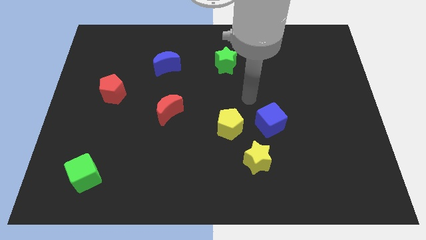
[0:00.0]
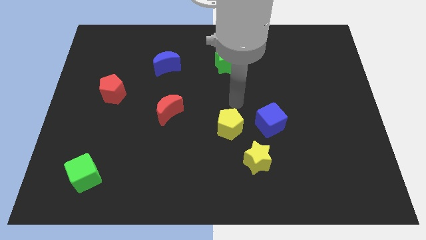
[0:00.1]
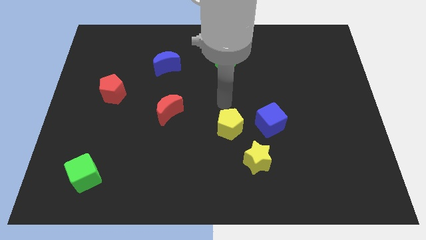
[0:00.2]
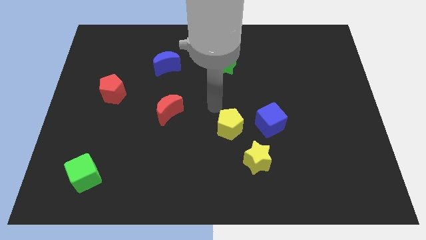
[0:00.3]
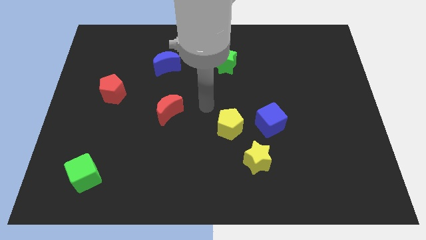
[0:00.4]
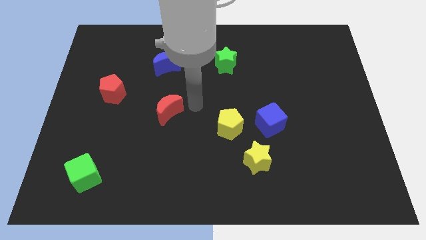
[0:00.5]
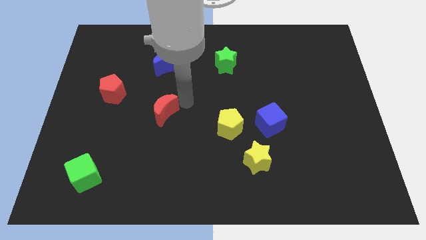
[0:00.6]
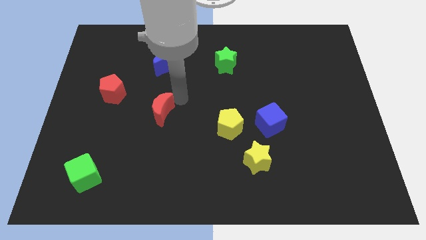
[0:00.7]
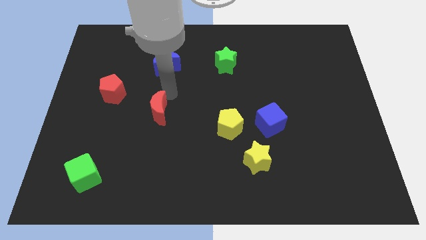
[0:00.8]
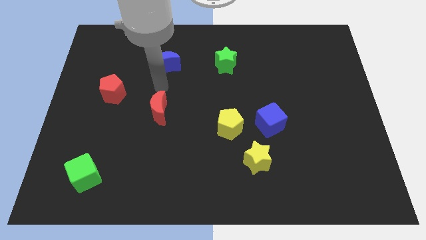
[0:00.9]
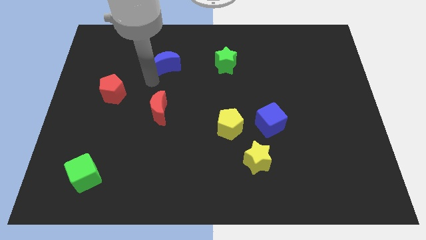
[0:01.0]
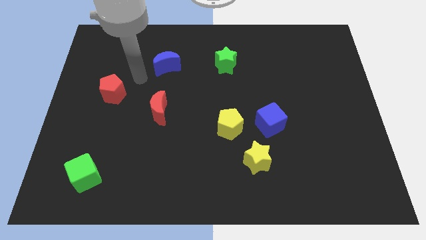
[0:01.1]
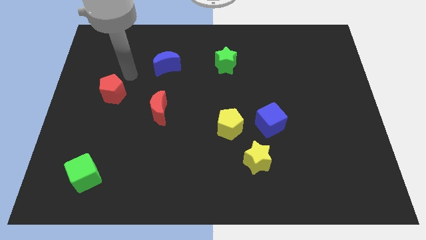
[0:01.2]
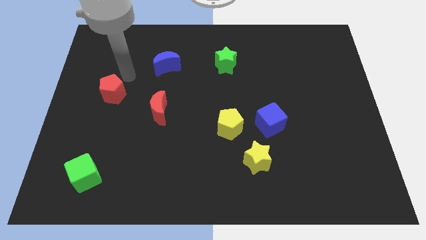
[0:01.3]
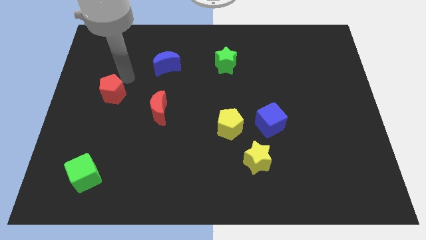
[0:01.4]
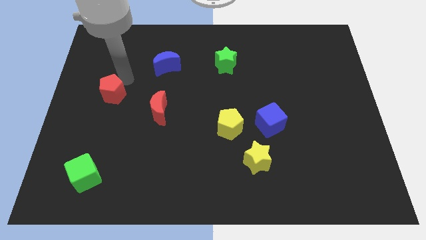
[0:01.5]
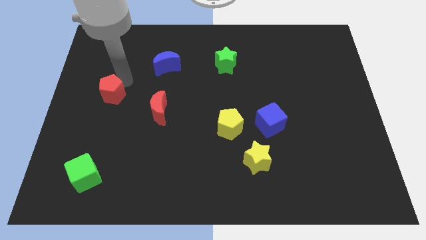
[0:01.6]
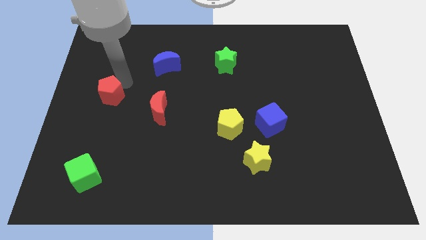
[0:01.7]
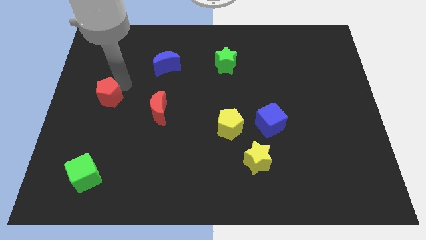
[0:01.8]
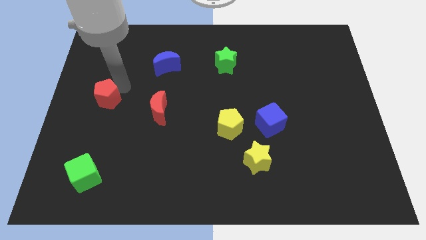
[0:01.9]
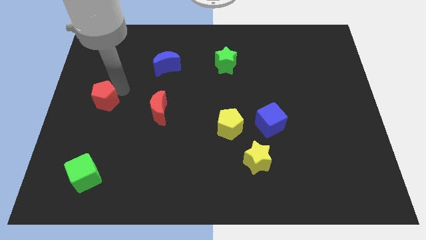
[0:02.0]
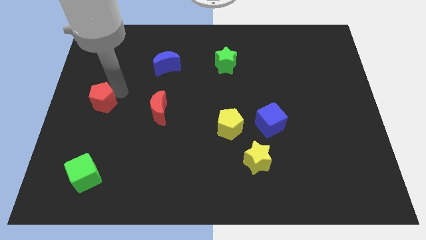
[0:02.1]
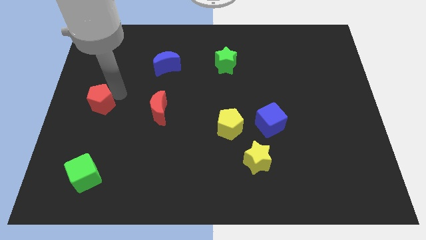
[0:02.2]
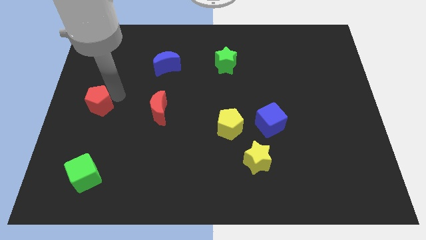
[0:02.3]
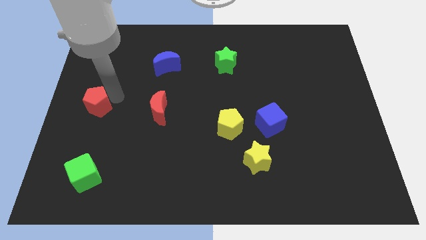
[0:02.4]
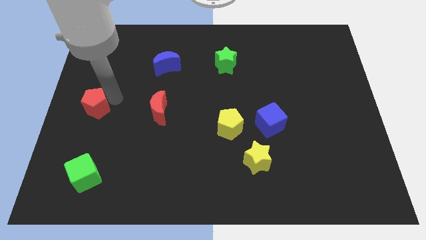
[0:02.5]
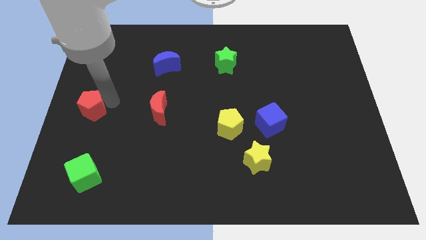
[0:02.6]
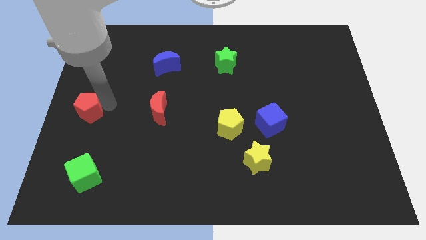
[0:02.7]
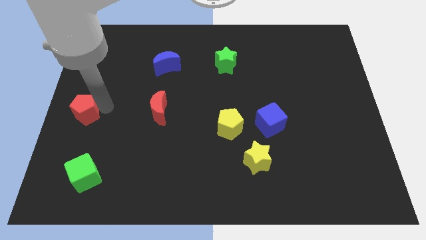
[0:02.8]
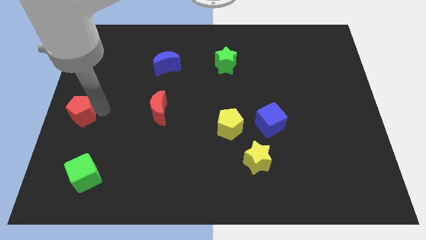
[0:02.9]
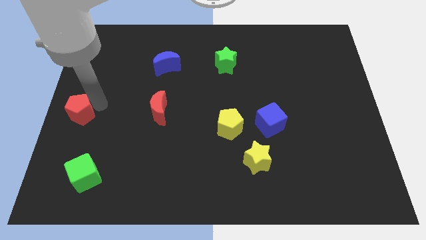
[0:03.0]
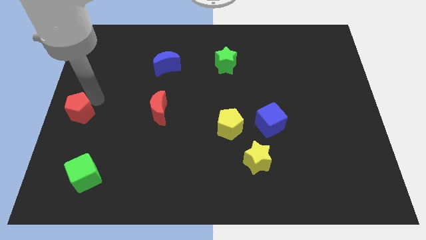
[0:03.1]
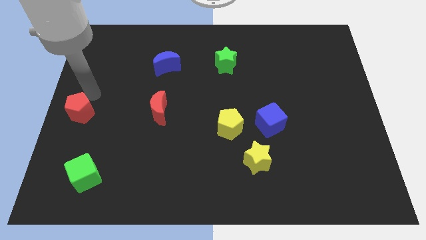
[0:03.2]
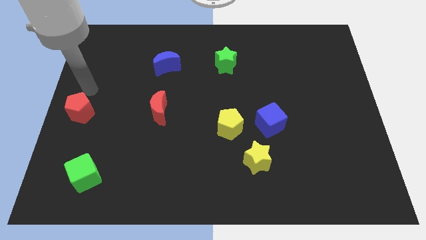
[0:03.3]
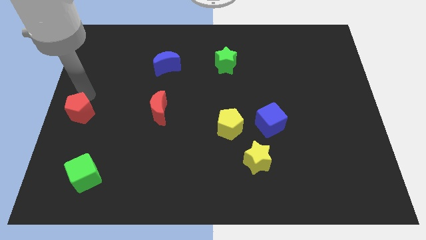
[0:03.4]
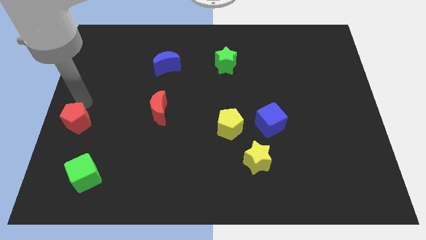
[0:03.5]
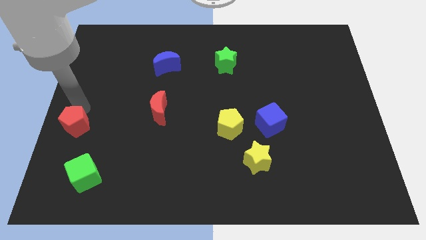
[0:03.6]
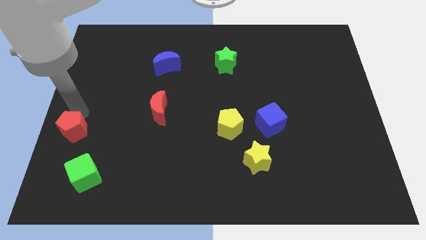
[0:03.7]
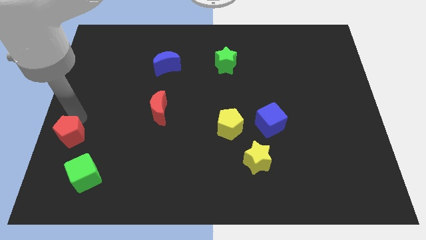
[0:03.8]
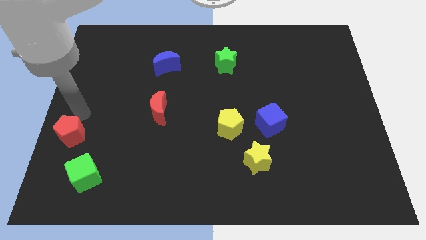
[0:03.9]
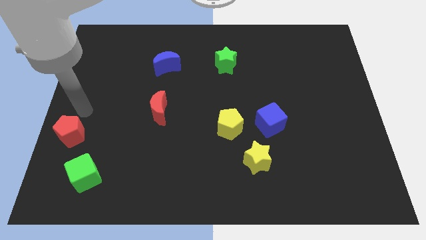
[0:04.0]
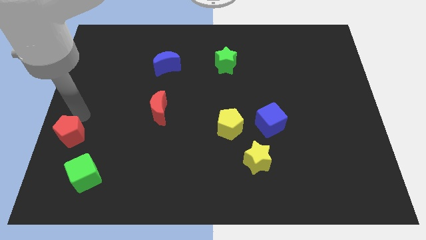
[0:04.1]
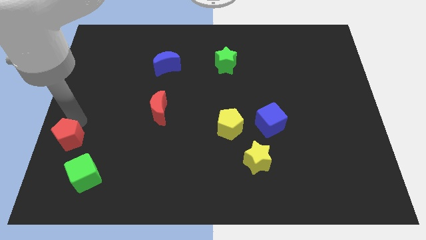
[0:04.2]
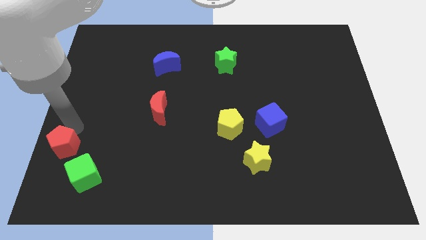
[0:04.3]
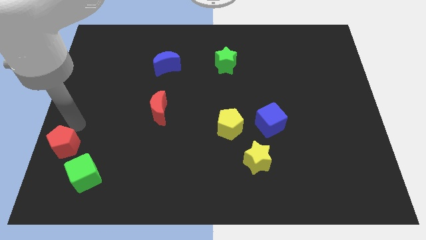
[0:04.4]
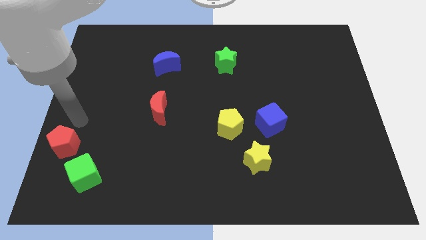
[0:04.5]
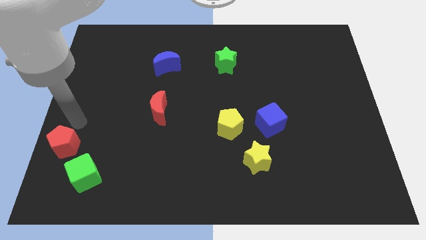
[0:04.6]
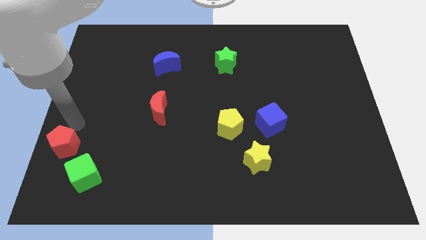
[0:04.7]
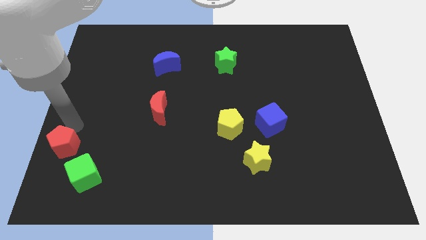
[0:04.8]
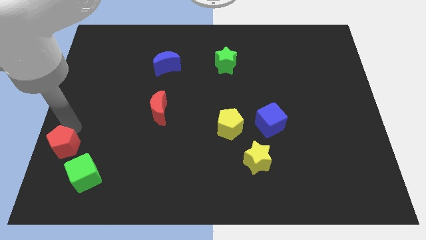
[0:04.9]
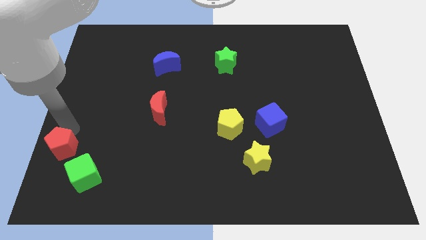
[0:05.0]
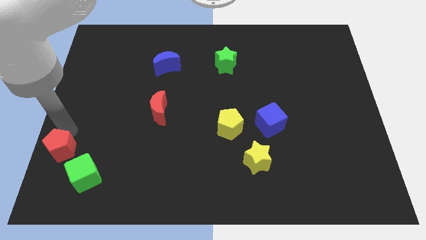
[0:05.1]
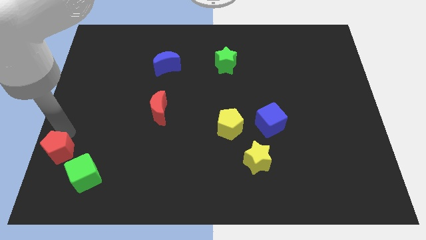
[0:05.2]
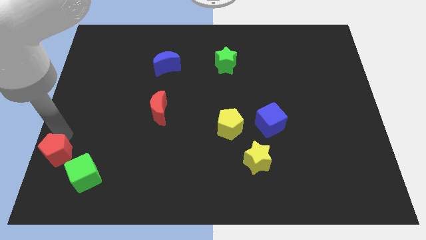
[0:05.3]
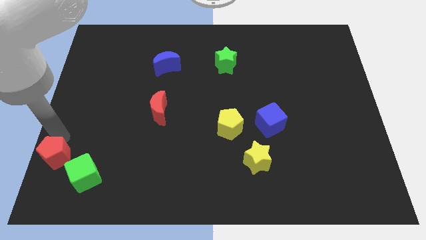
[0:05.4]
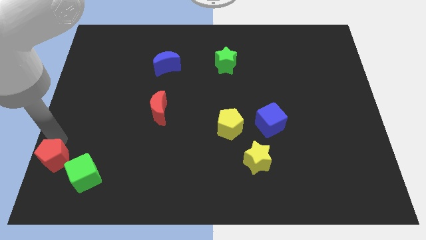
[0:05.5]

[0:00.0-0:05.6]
move the red pentagon to the bottom left of the board
